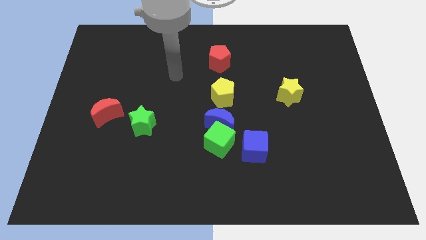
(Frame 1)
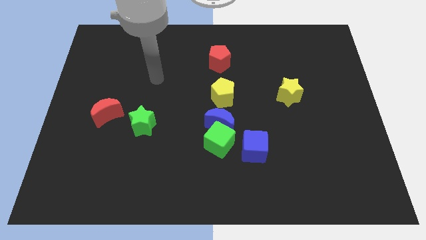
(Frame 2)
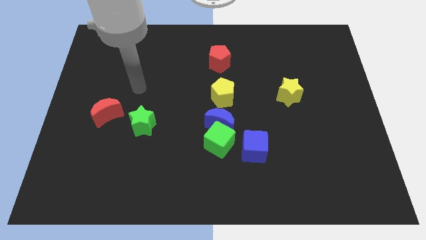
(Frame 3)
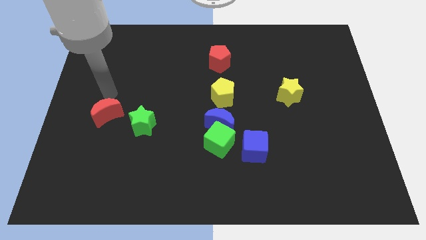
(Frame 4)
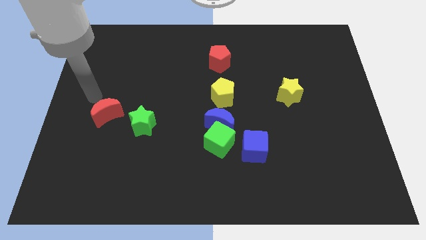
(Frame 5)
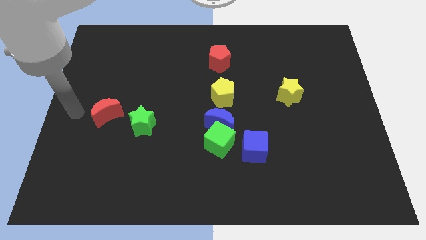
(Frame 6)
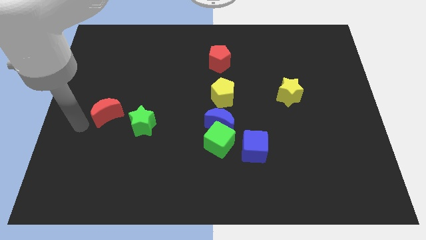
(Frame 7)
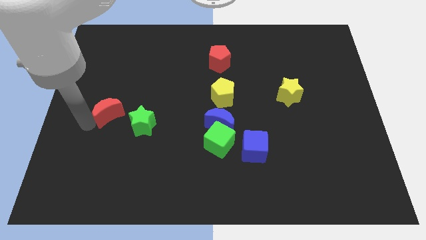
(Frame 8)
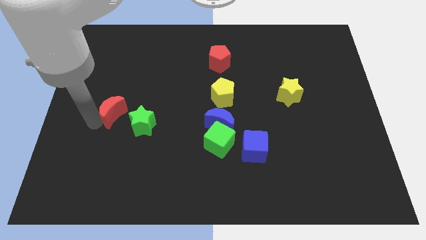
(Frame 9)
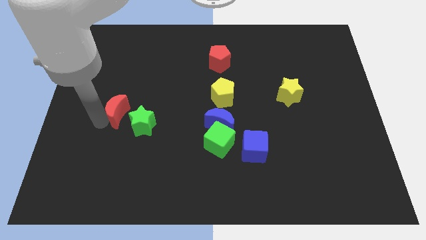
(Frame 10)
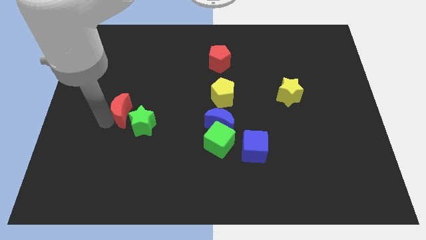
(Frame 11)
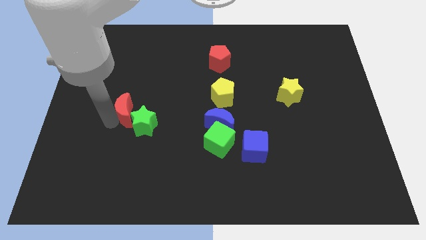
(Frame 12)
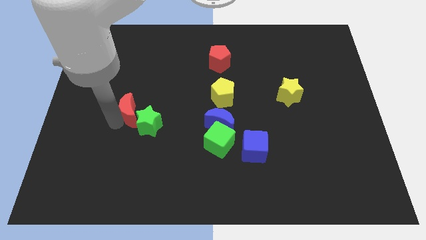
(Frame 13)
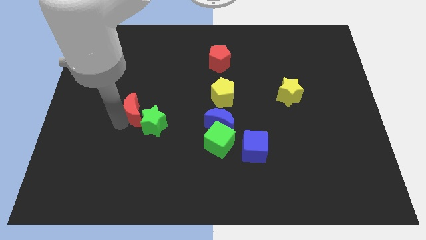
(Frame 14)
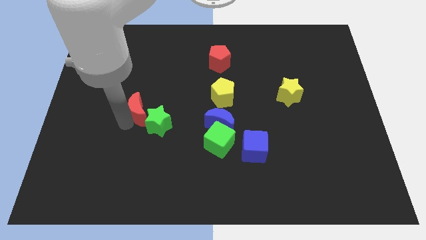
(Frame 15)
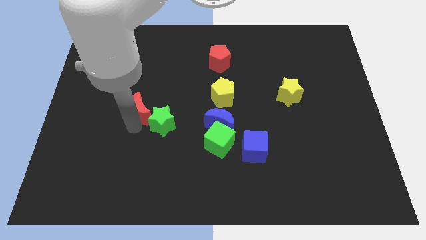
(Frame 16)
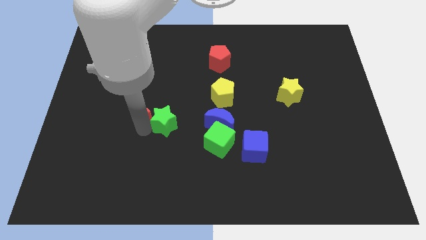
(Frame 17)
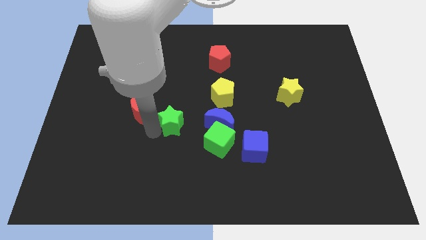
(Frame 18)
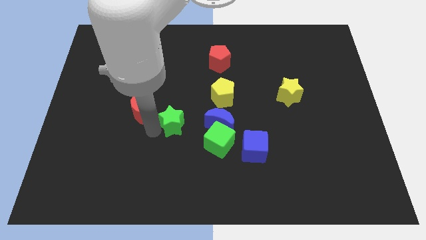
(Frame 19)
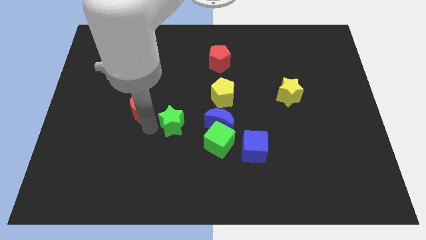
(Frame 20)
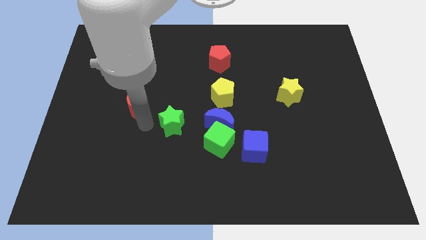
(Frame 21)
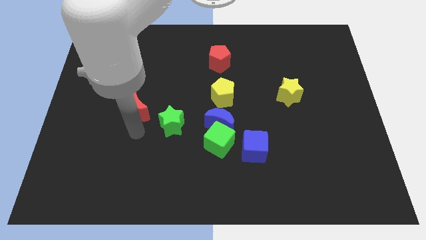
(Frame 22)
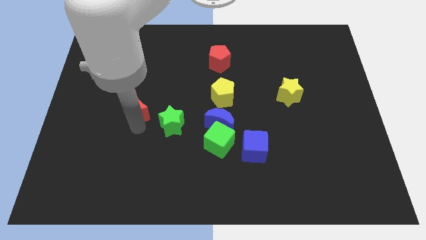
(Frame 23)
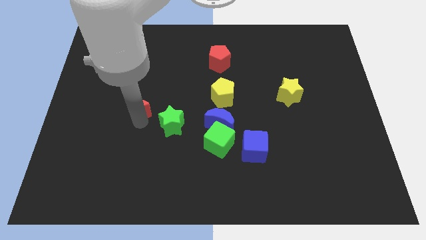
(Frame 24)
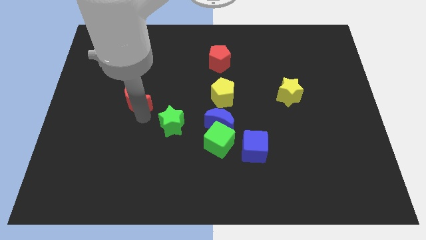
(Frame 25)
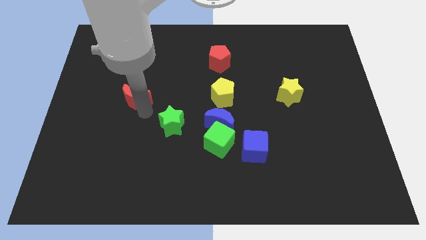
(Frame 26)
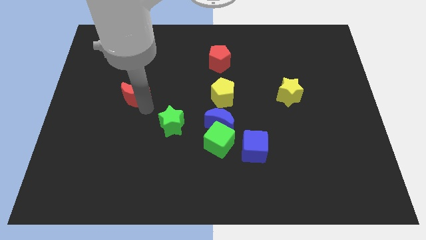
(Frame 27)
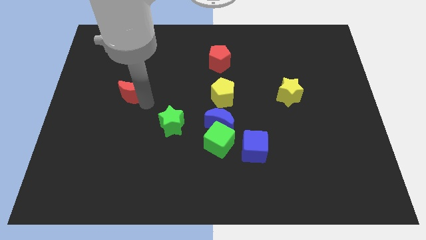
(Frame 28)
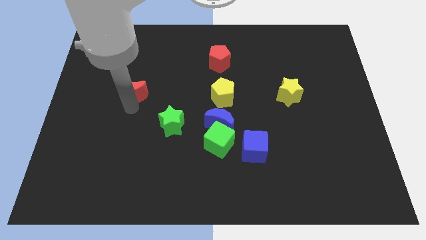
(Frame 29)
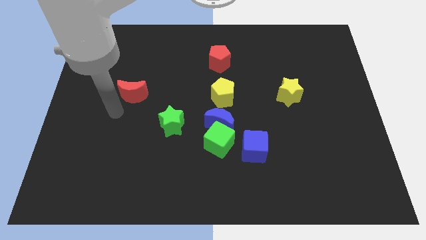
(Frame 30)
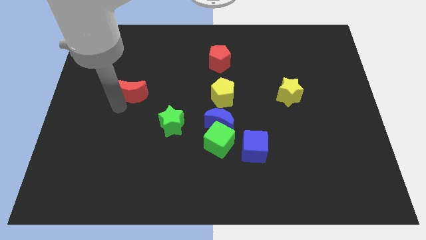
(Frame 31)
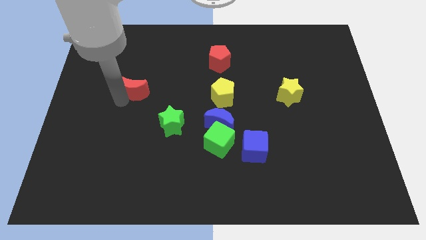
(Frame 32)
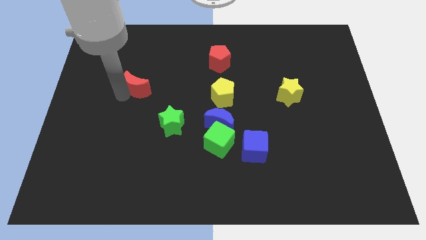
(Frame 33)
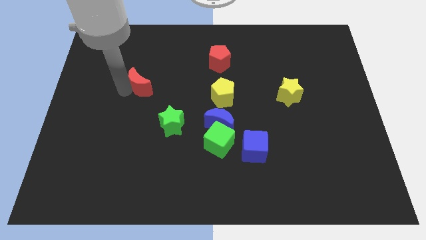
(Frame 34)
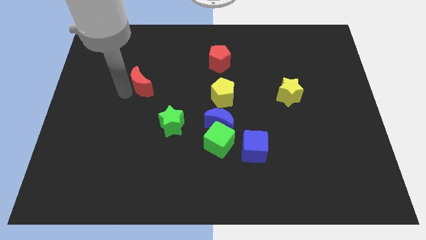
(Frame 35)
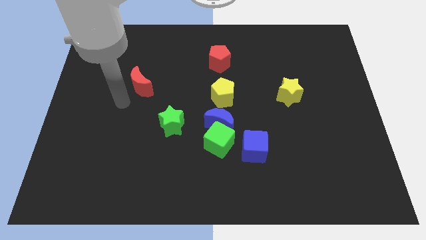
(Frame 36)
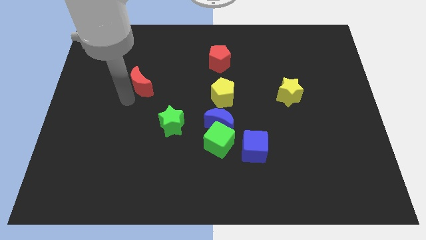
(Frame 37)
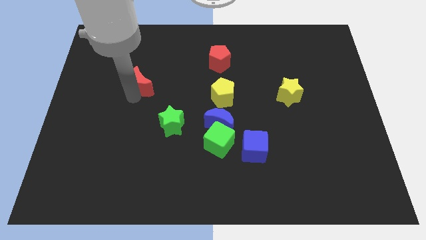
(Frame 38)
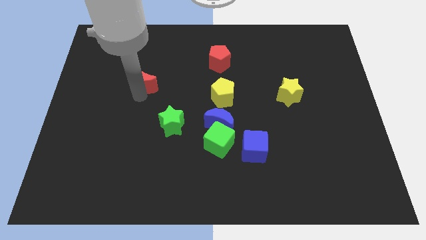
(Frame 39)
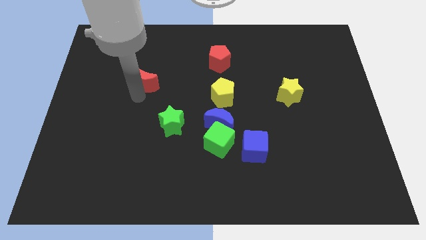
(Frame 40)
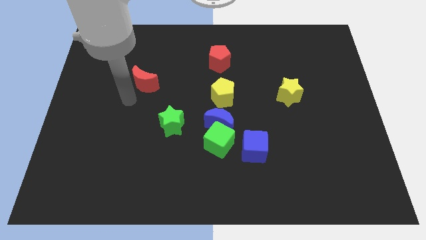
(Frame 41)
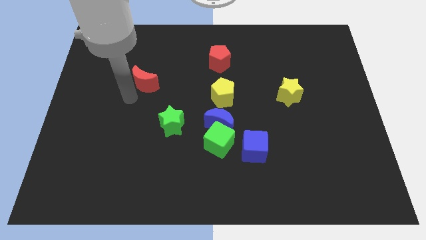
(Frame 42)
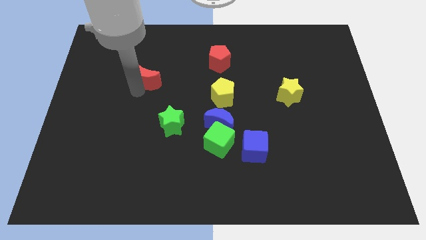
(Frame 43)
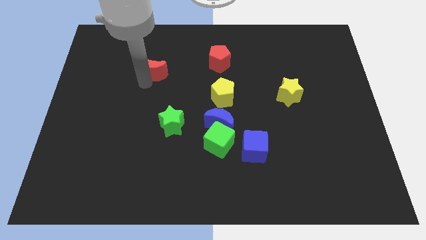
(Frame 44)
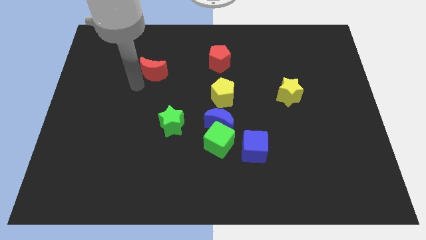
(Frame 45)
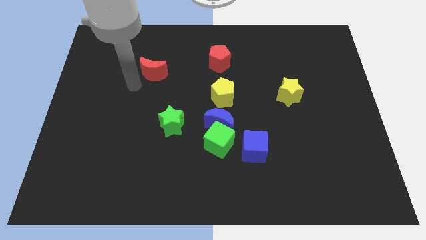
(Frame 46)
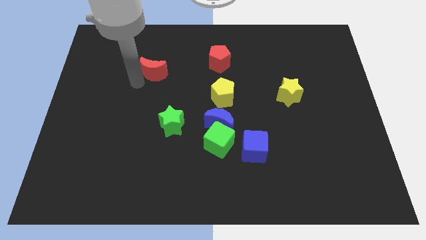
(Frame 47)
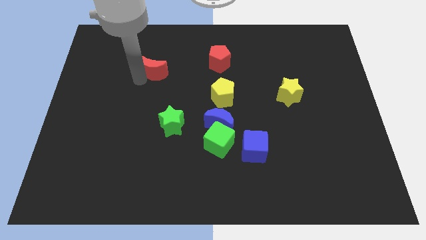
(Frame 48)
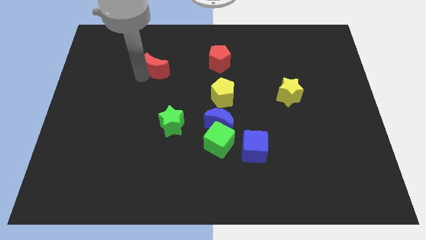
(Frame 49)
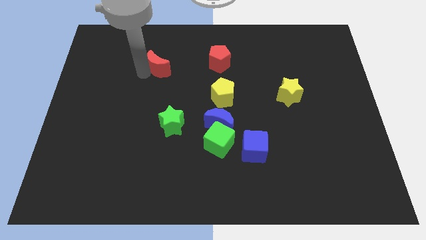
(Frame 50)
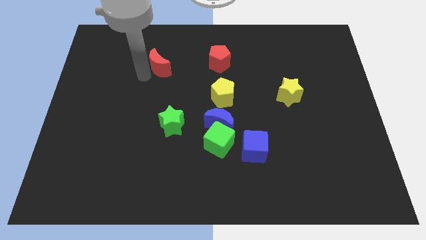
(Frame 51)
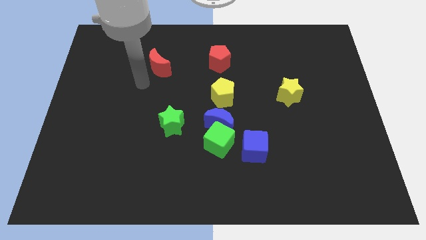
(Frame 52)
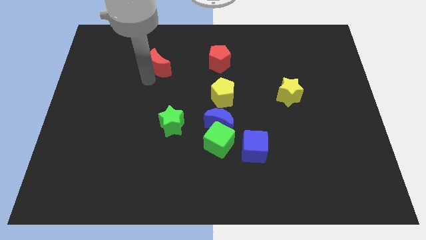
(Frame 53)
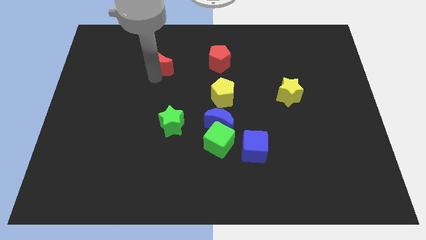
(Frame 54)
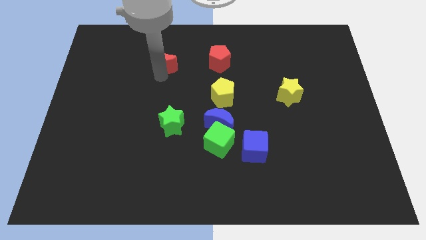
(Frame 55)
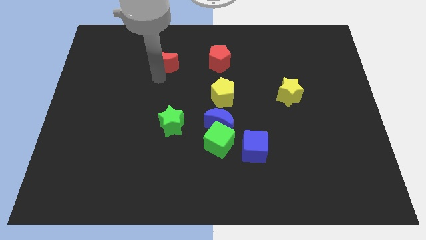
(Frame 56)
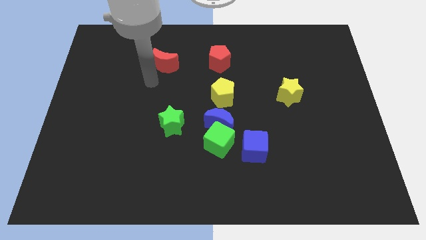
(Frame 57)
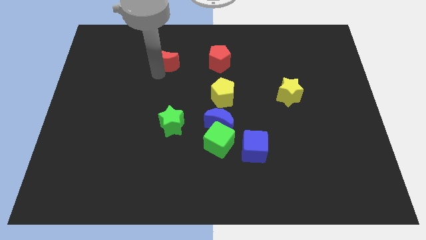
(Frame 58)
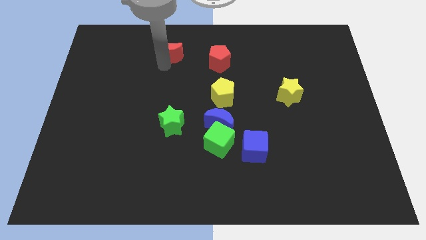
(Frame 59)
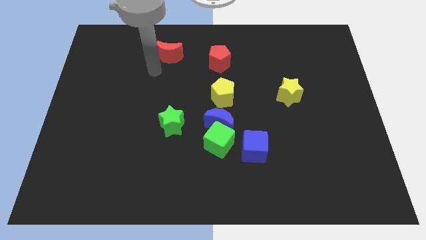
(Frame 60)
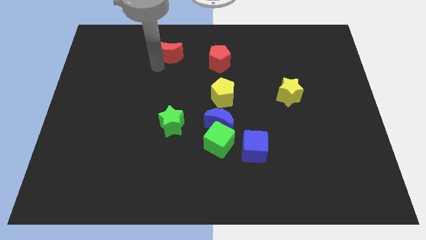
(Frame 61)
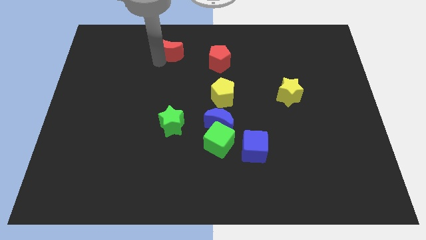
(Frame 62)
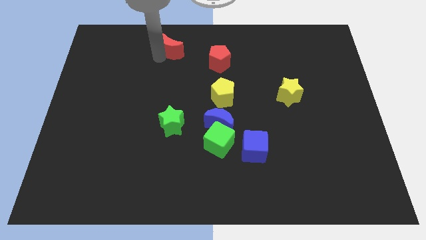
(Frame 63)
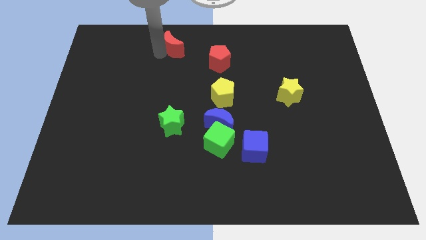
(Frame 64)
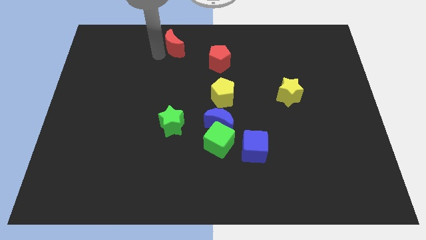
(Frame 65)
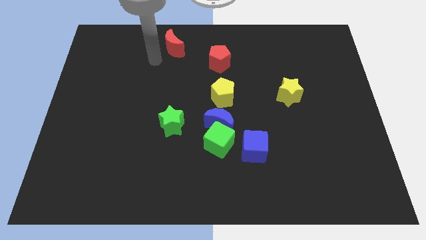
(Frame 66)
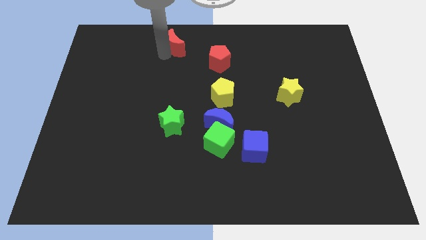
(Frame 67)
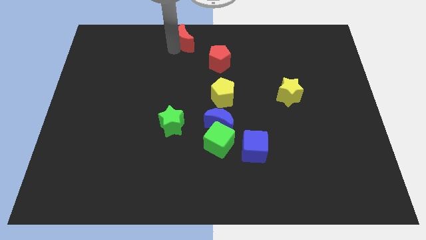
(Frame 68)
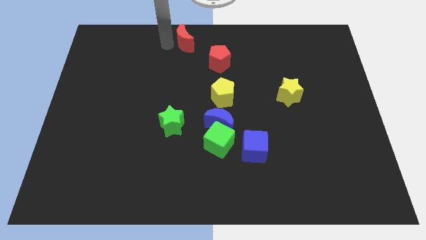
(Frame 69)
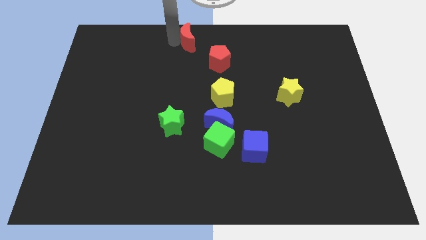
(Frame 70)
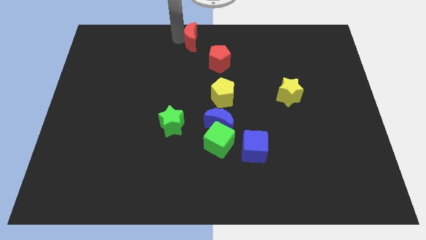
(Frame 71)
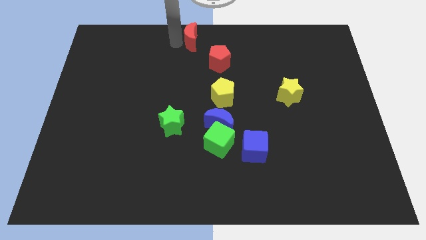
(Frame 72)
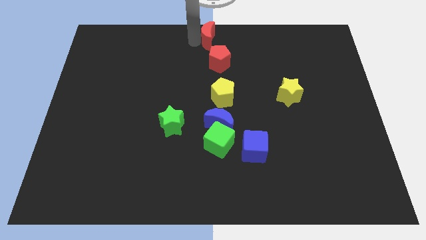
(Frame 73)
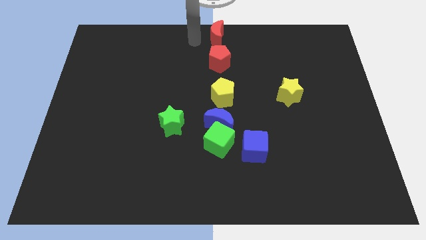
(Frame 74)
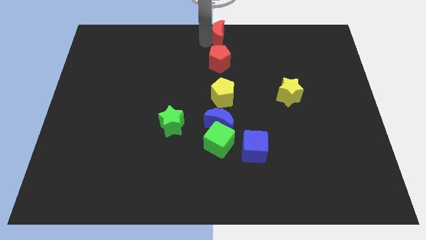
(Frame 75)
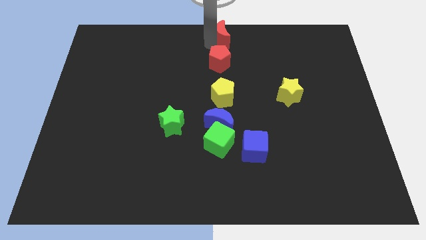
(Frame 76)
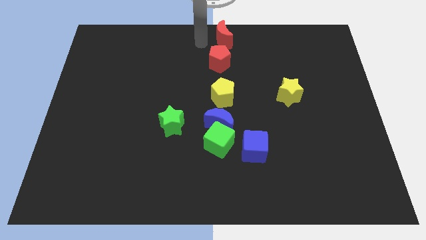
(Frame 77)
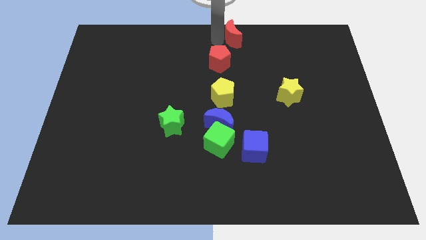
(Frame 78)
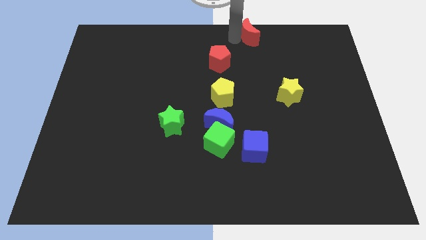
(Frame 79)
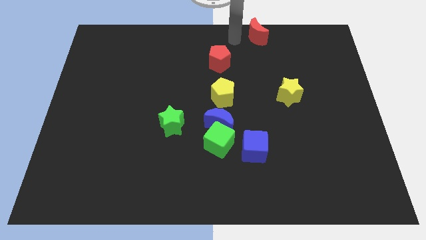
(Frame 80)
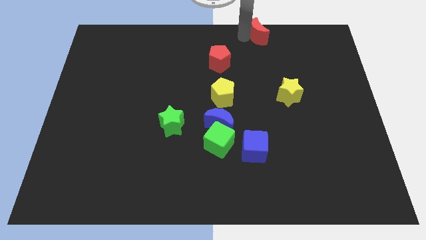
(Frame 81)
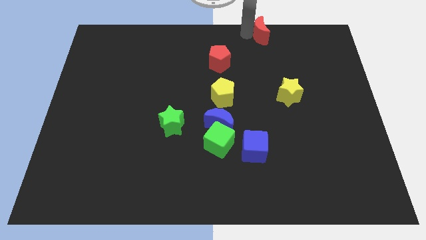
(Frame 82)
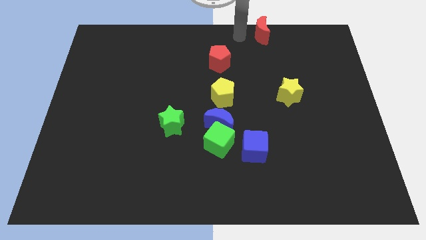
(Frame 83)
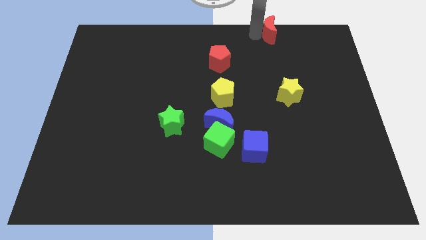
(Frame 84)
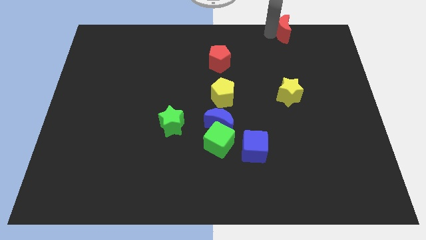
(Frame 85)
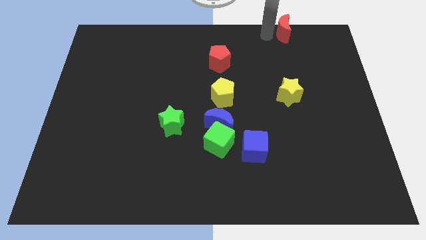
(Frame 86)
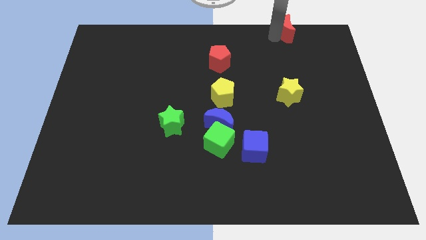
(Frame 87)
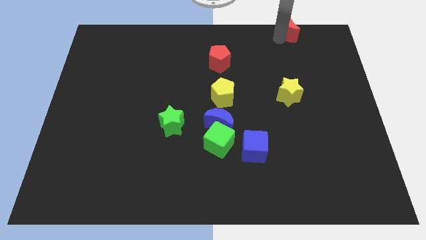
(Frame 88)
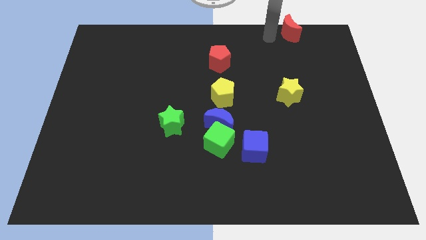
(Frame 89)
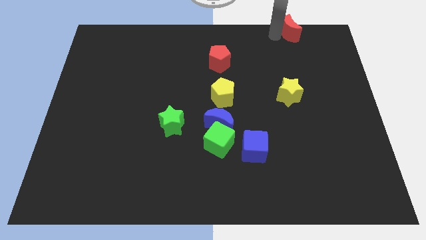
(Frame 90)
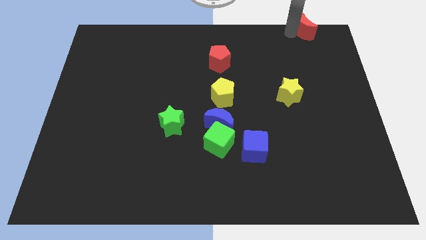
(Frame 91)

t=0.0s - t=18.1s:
push the red moon to the upper right corner
